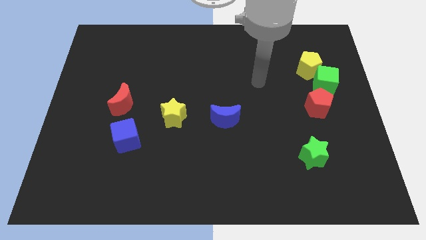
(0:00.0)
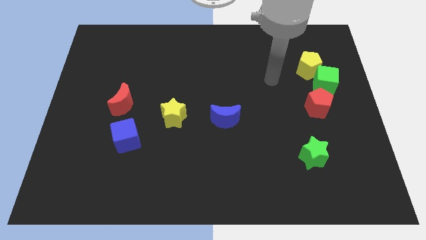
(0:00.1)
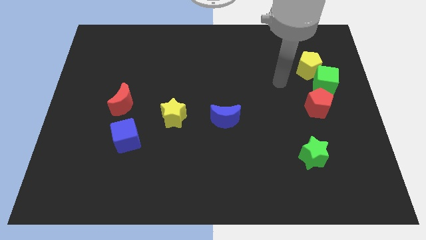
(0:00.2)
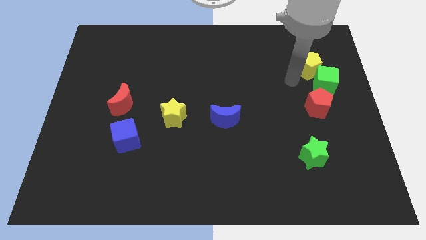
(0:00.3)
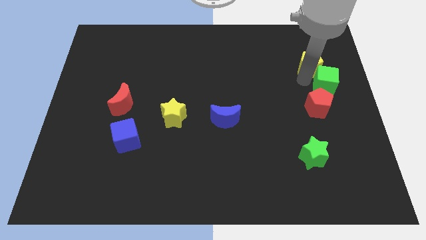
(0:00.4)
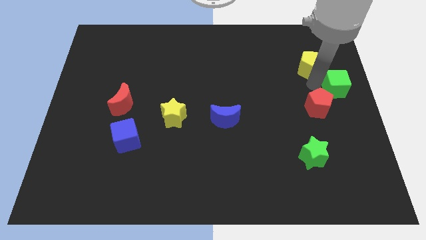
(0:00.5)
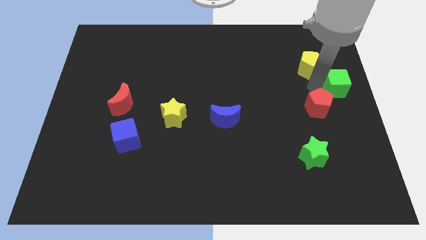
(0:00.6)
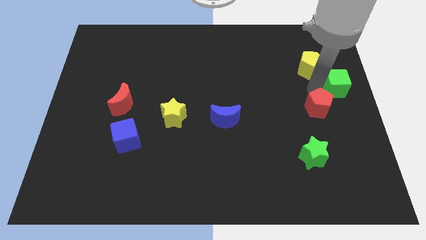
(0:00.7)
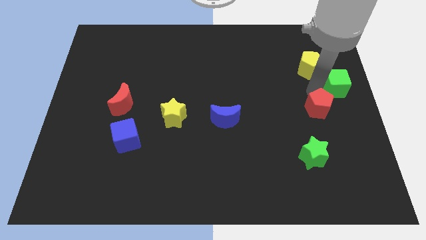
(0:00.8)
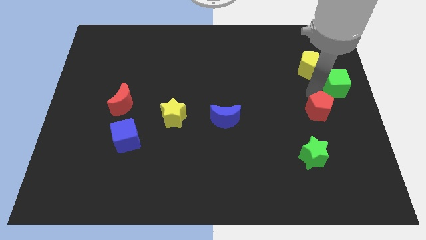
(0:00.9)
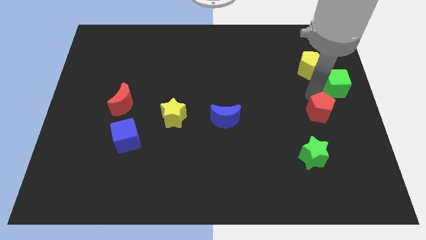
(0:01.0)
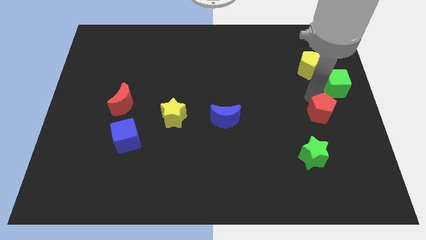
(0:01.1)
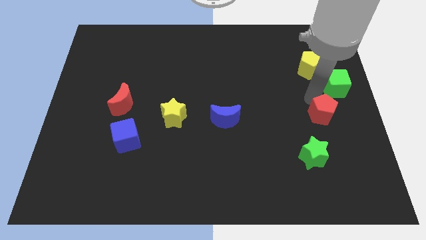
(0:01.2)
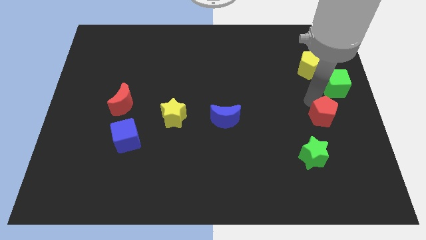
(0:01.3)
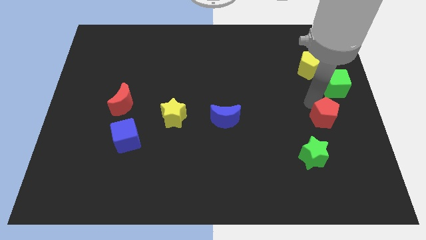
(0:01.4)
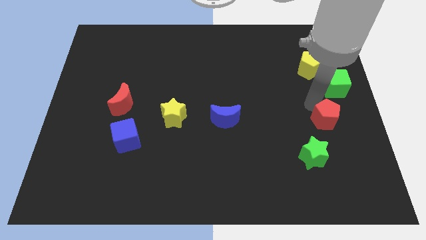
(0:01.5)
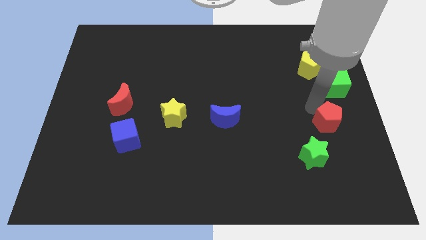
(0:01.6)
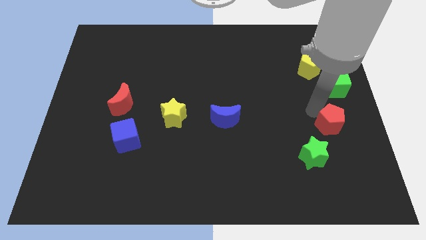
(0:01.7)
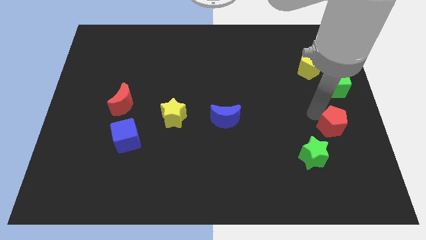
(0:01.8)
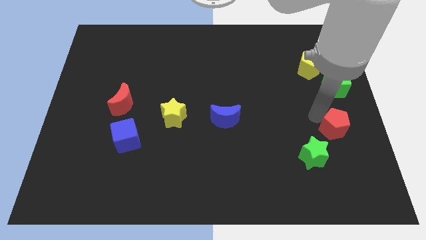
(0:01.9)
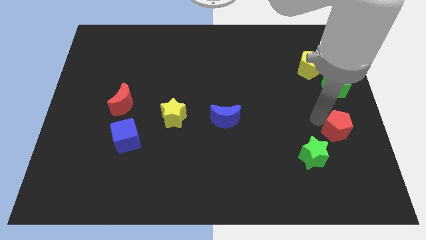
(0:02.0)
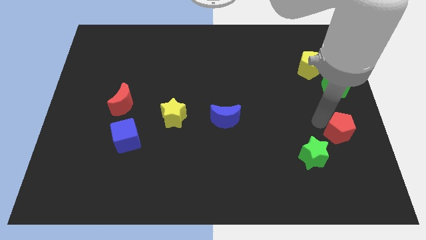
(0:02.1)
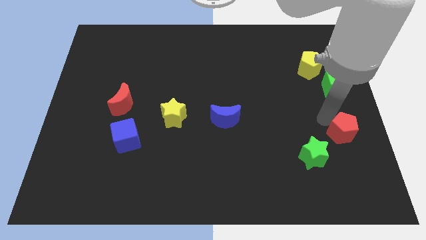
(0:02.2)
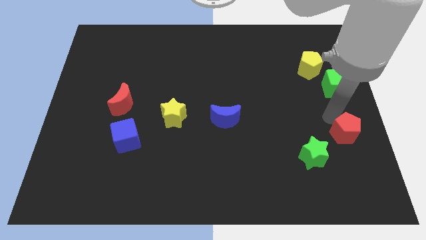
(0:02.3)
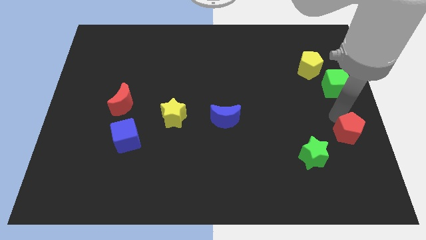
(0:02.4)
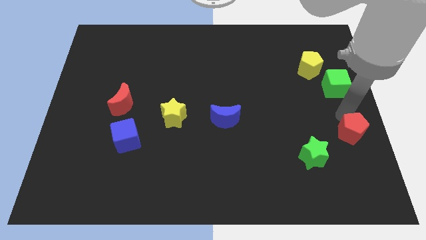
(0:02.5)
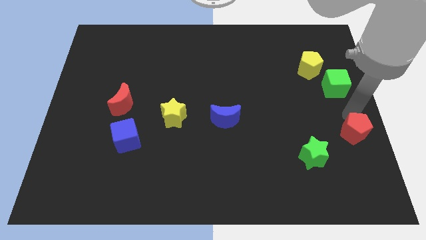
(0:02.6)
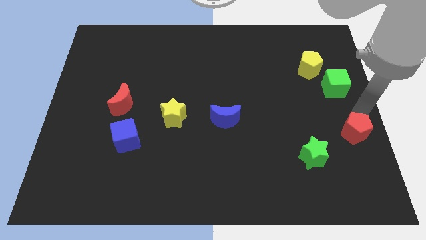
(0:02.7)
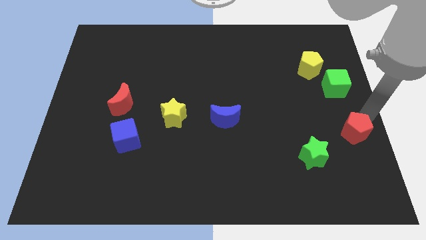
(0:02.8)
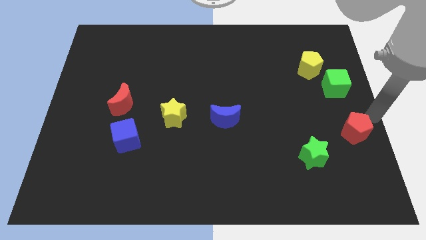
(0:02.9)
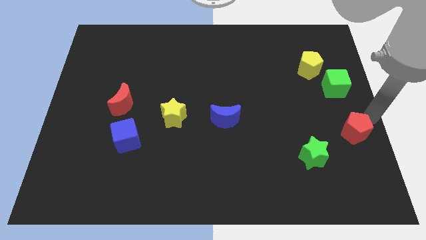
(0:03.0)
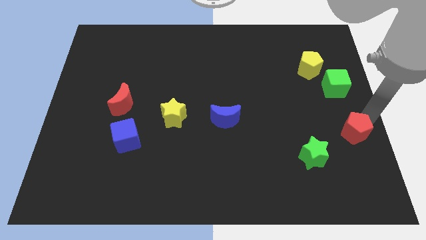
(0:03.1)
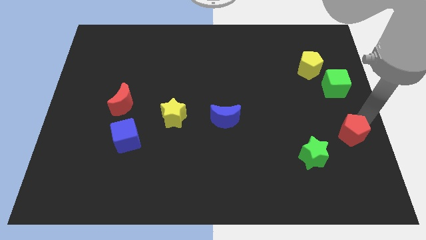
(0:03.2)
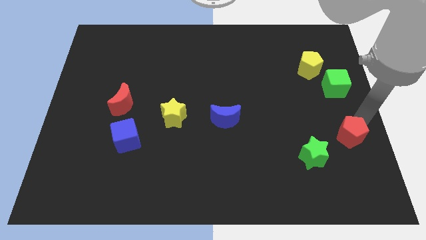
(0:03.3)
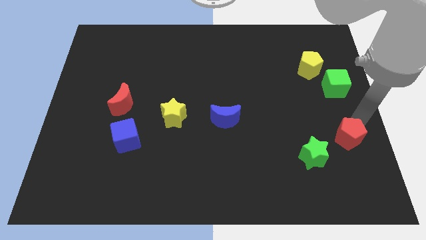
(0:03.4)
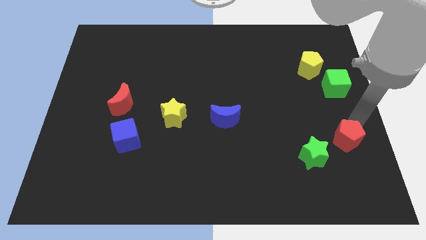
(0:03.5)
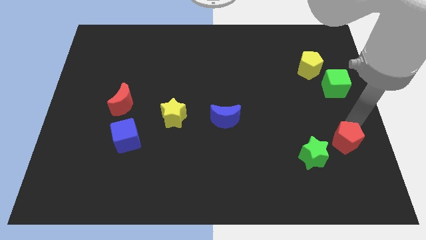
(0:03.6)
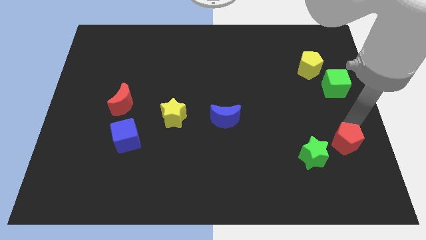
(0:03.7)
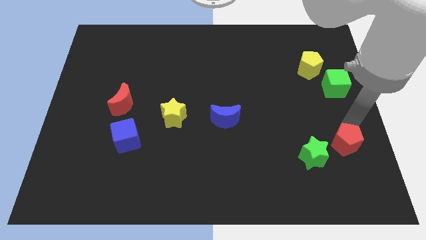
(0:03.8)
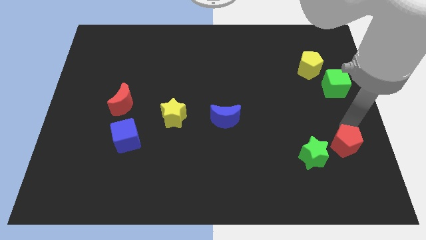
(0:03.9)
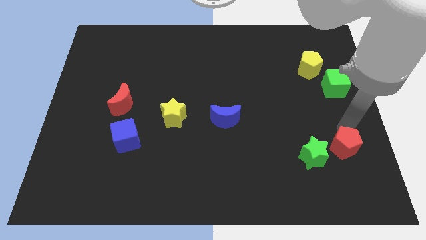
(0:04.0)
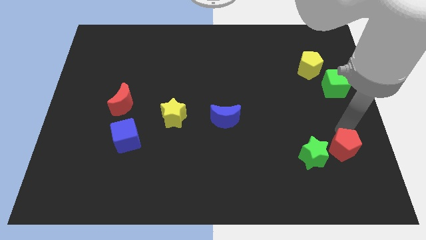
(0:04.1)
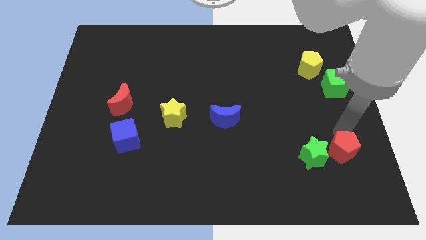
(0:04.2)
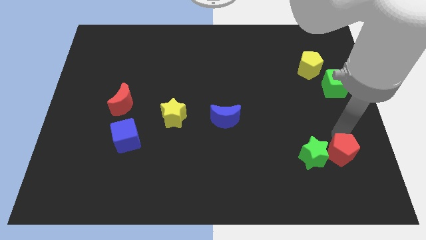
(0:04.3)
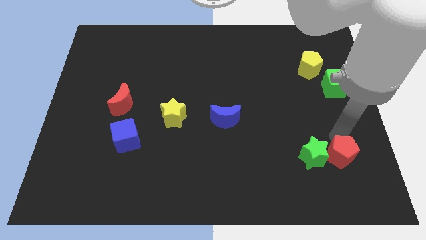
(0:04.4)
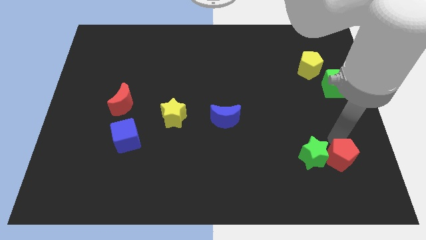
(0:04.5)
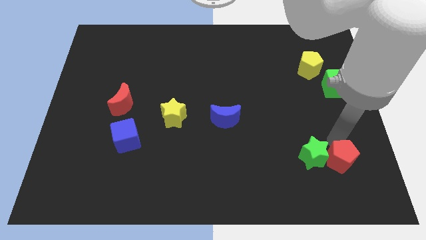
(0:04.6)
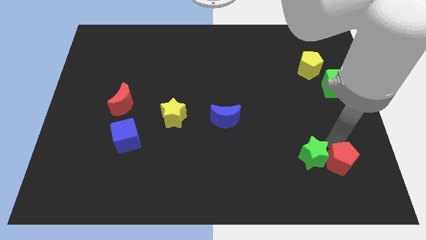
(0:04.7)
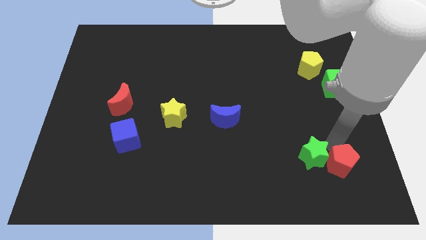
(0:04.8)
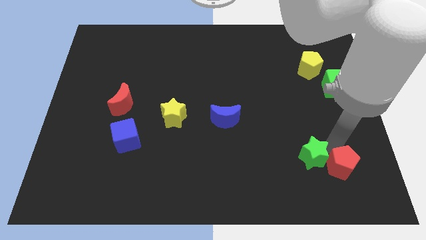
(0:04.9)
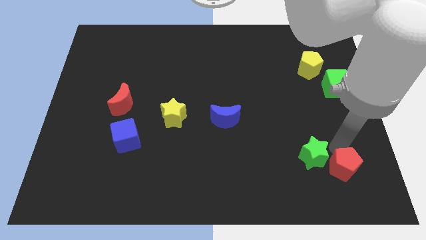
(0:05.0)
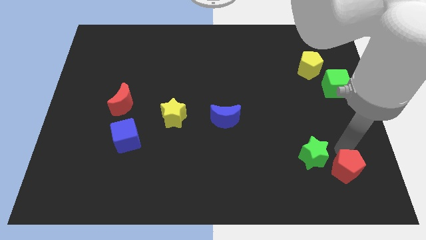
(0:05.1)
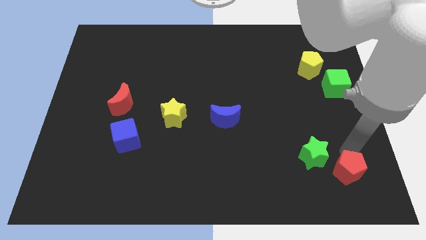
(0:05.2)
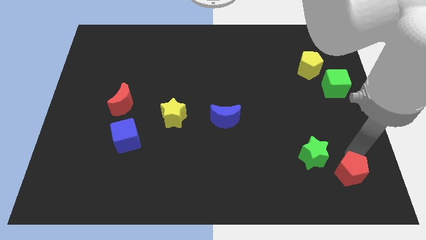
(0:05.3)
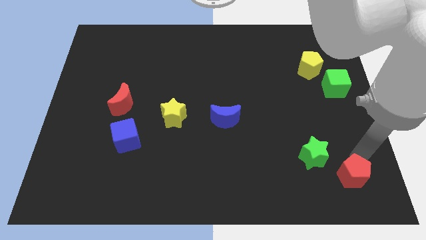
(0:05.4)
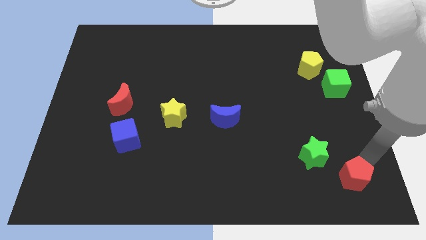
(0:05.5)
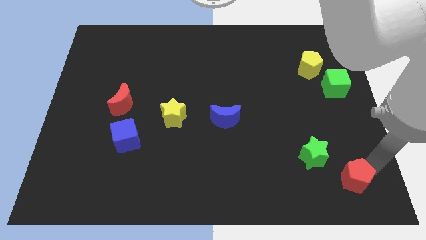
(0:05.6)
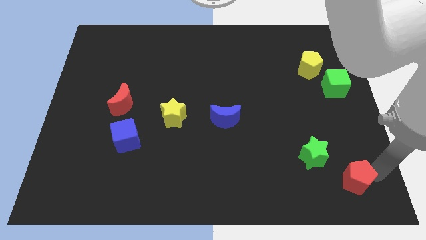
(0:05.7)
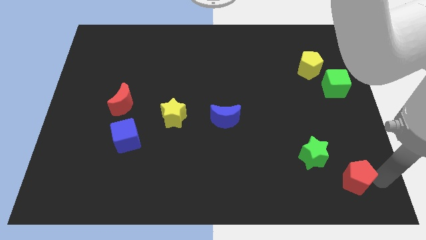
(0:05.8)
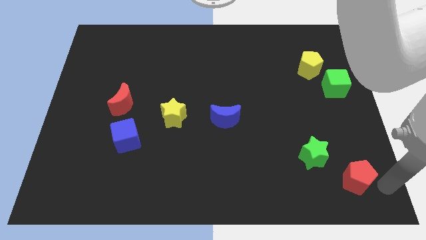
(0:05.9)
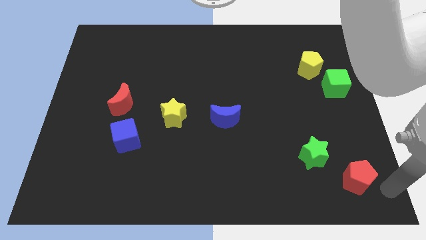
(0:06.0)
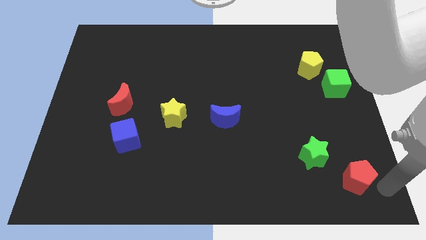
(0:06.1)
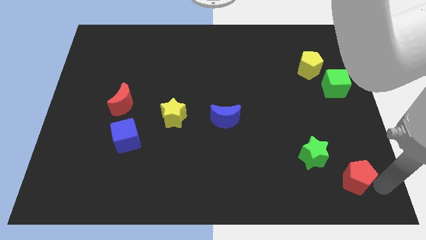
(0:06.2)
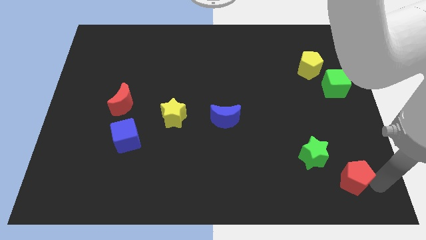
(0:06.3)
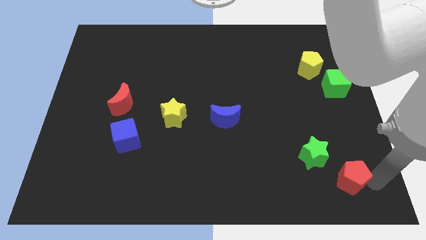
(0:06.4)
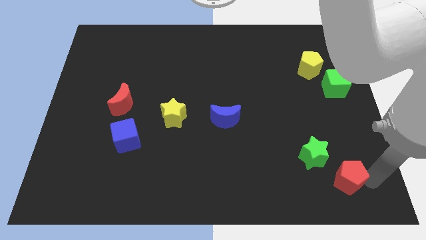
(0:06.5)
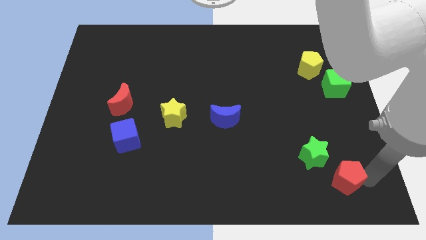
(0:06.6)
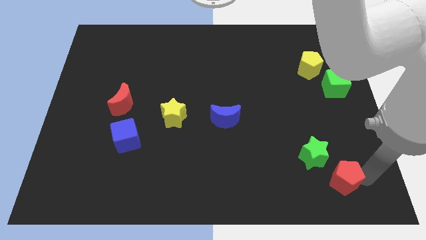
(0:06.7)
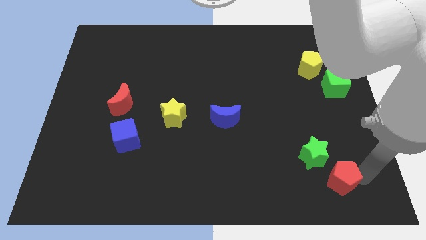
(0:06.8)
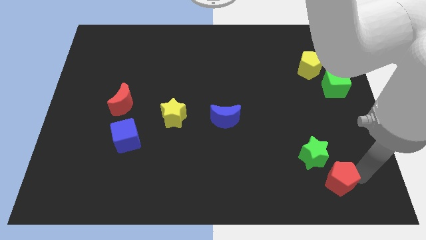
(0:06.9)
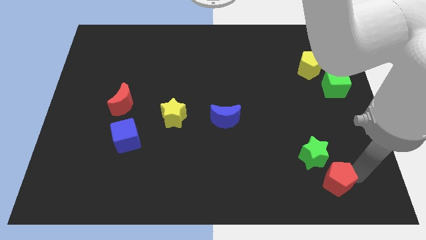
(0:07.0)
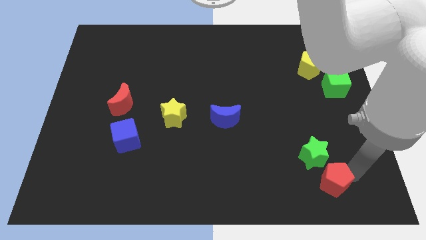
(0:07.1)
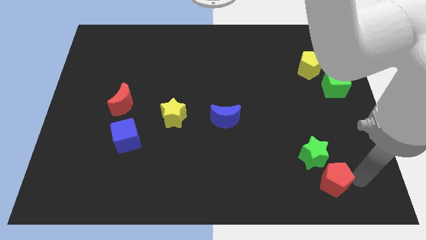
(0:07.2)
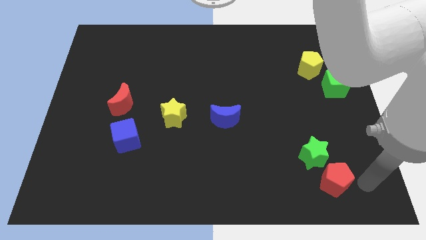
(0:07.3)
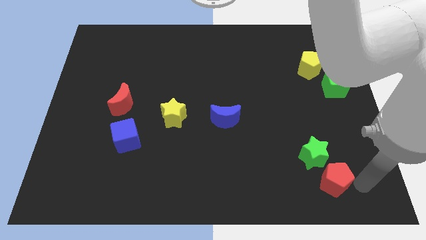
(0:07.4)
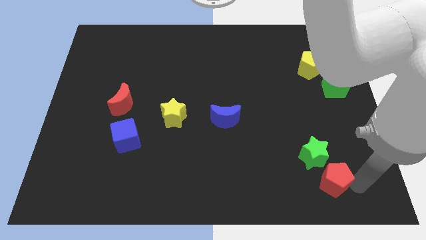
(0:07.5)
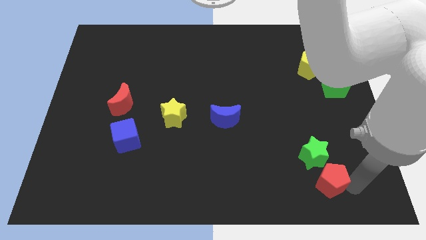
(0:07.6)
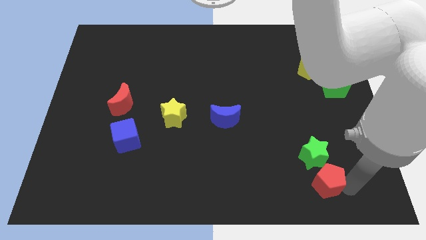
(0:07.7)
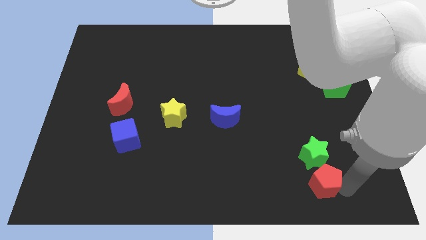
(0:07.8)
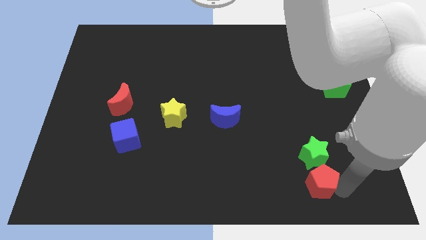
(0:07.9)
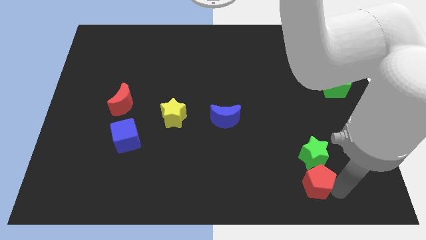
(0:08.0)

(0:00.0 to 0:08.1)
put the red pentagon diagonally down and to the left of the green star
